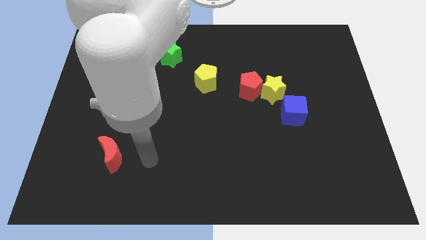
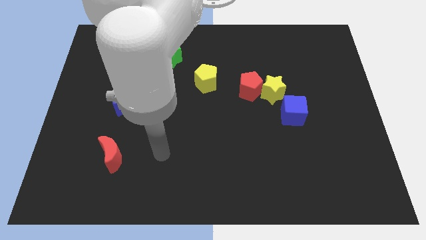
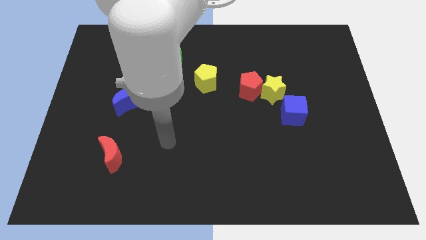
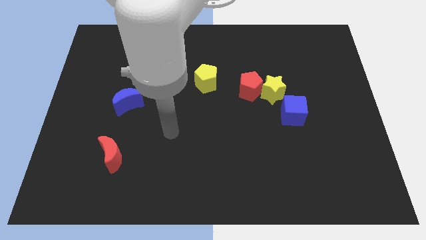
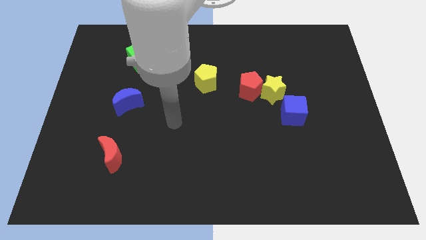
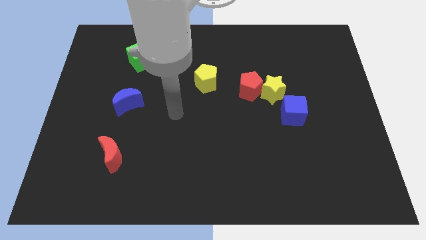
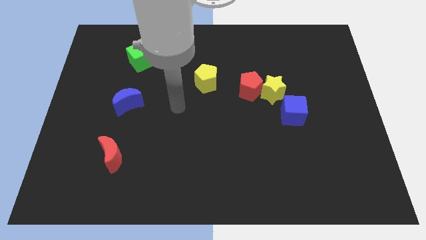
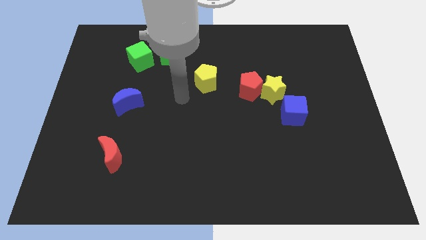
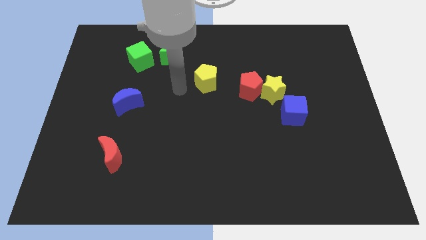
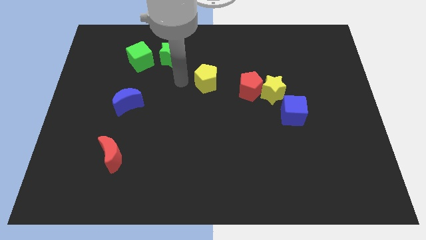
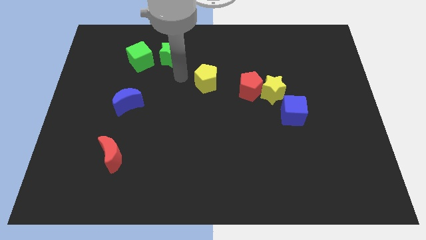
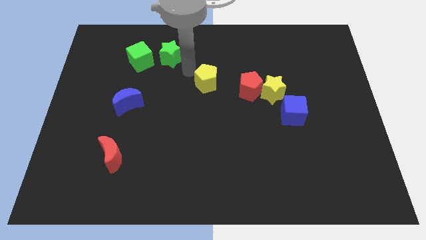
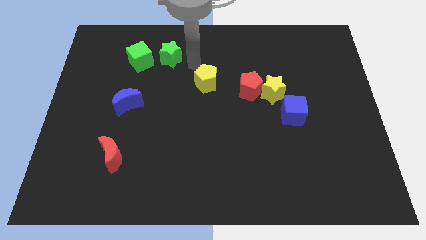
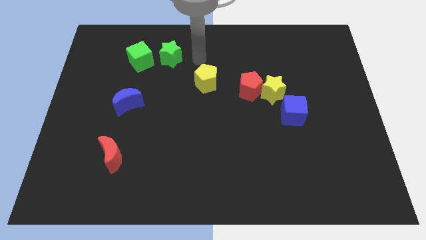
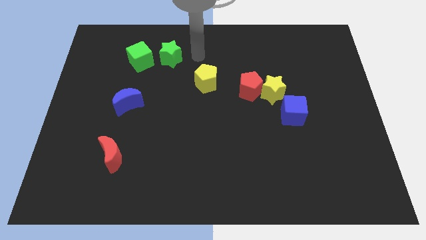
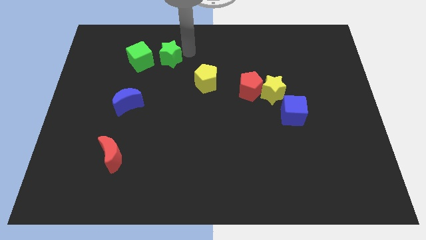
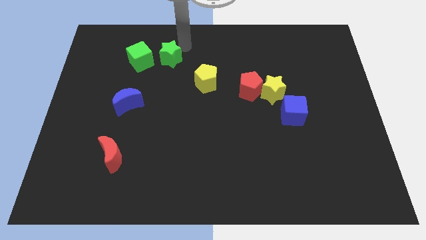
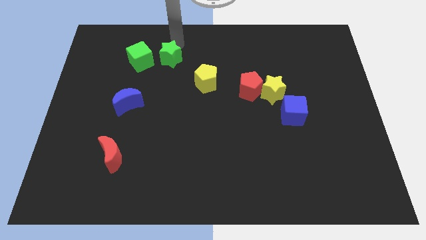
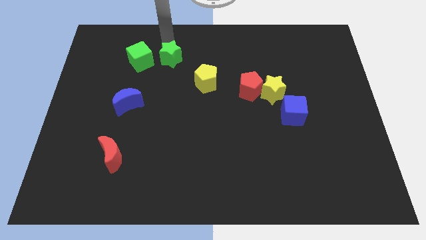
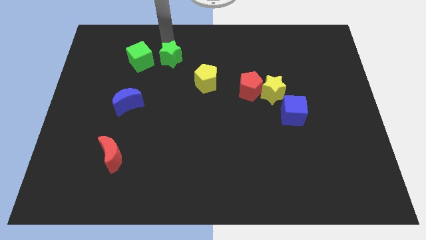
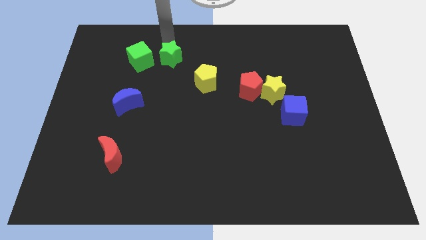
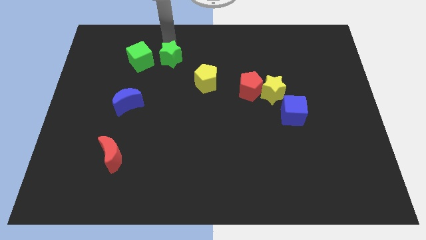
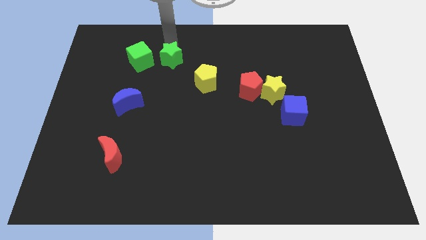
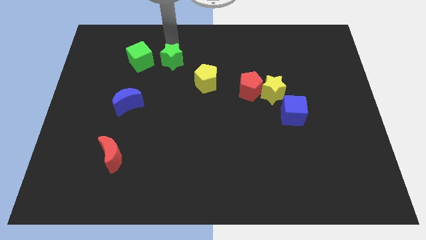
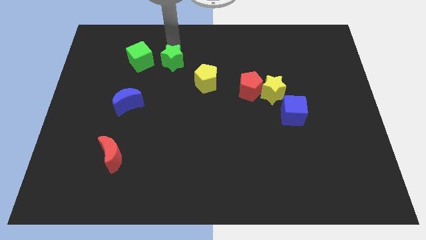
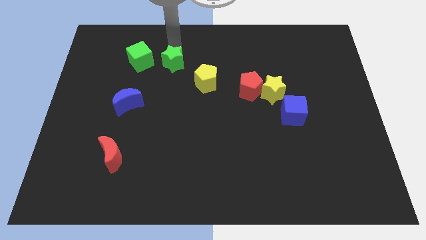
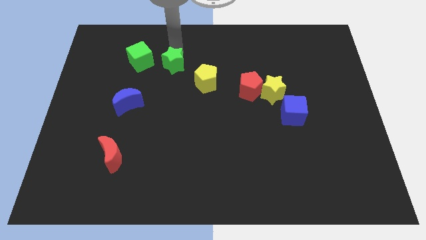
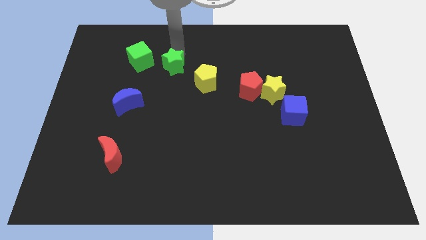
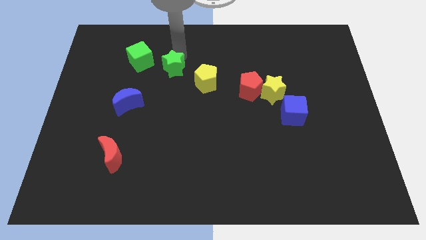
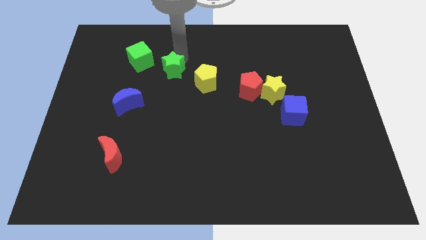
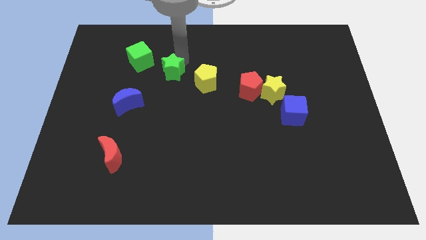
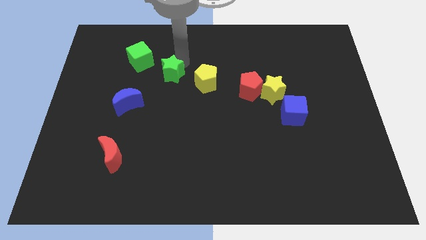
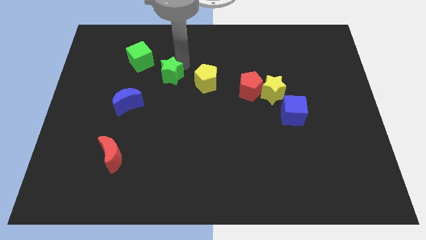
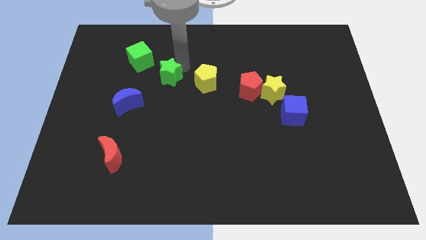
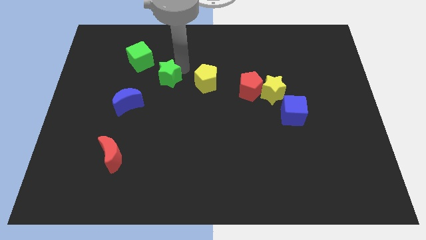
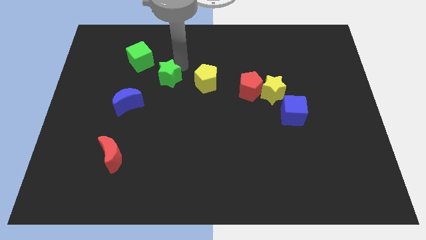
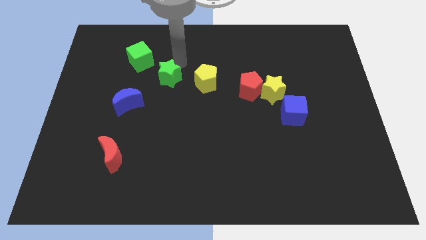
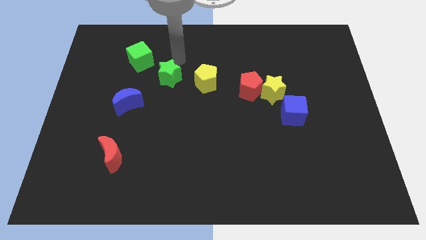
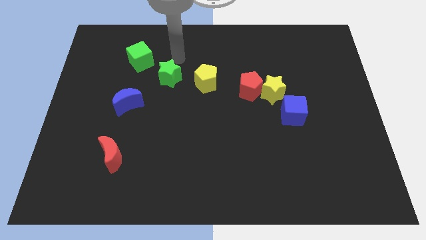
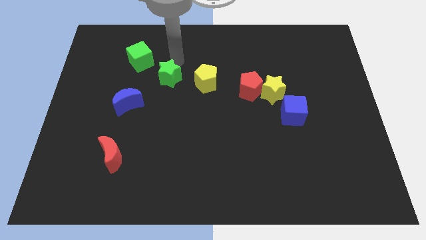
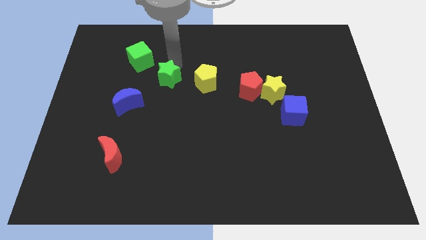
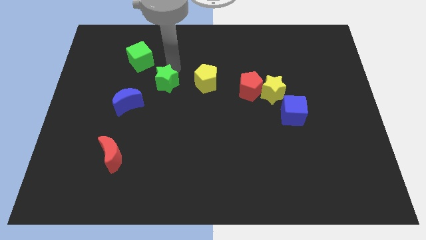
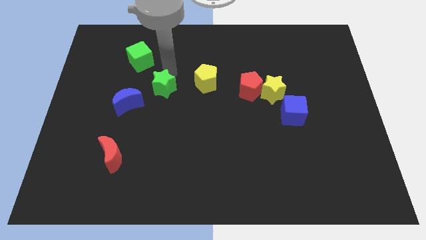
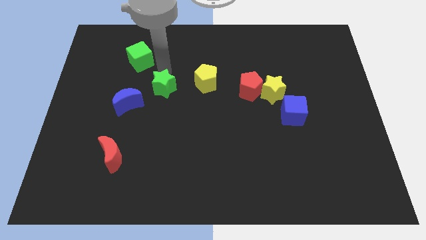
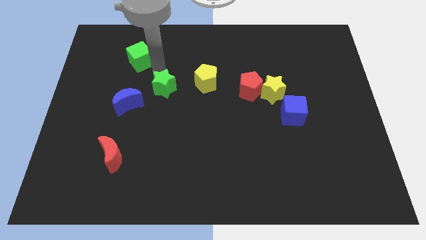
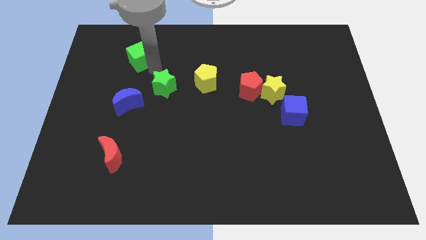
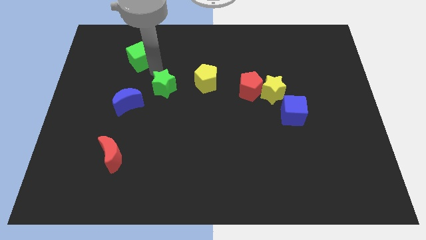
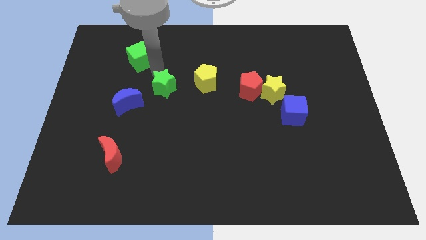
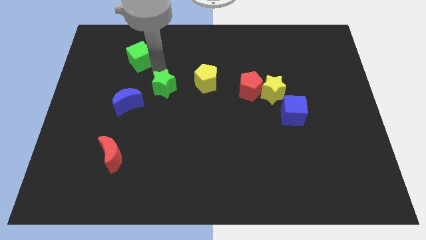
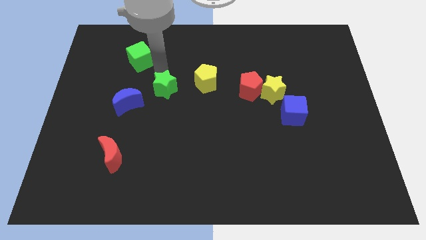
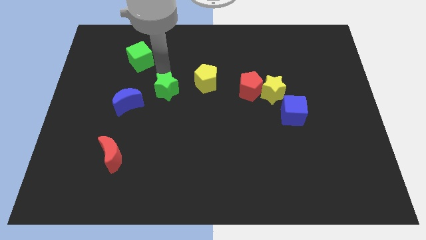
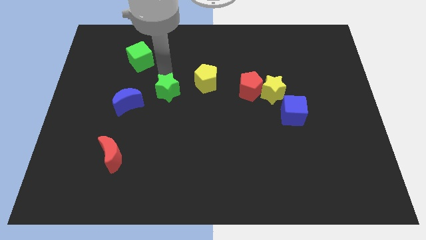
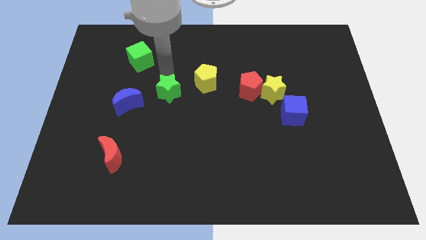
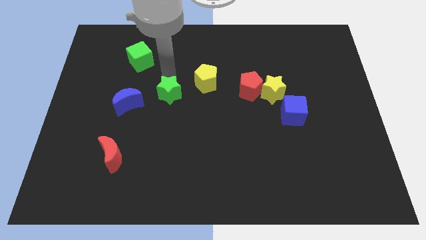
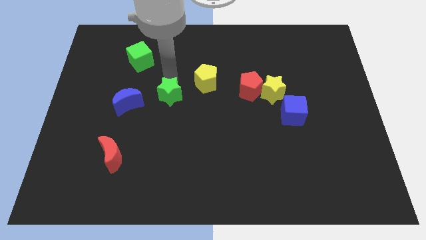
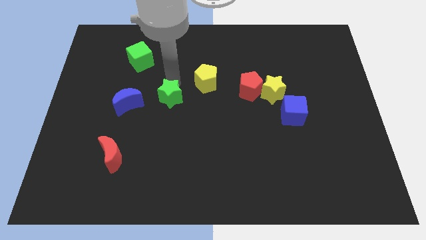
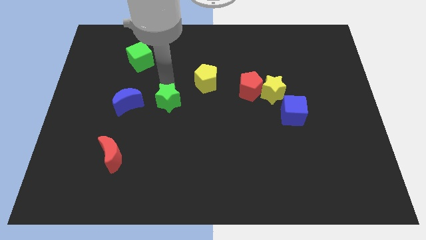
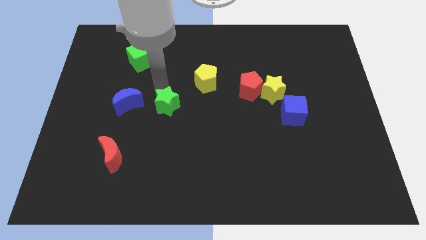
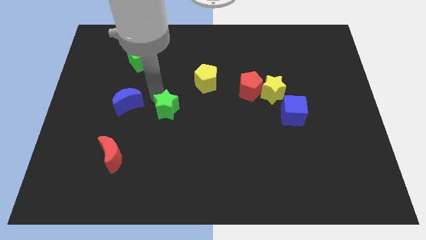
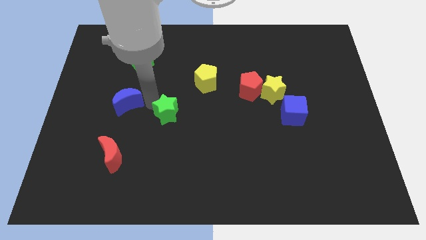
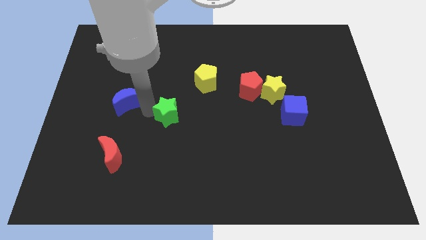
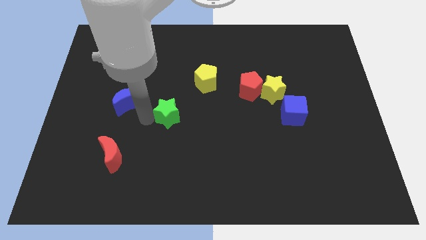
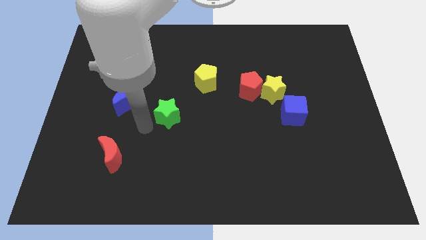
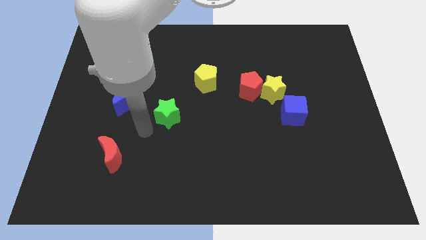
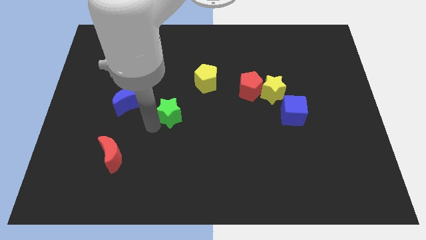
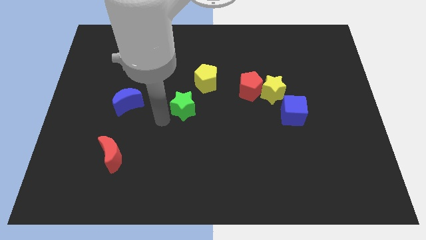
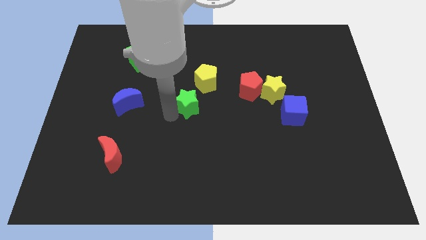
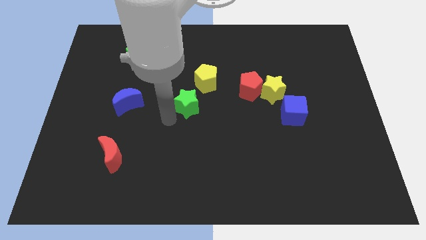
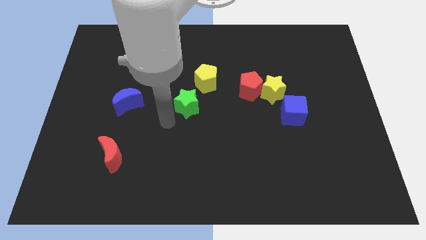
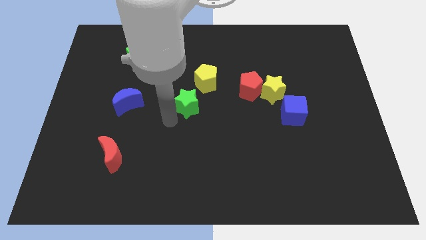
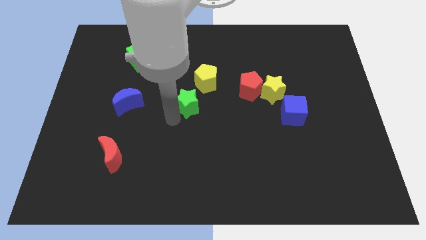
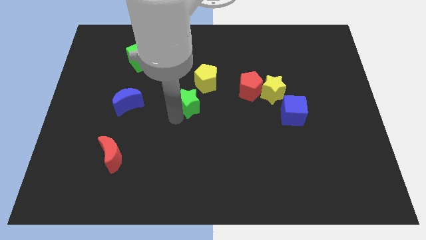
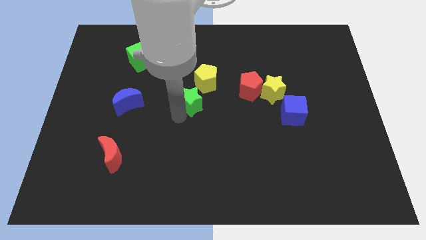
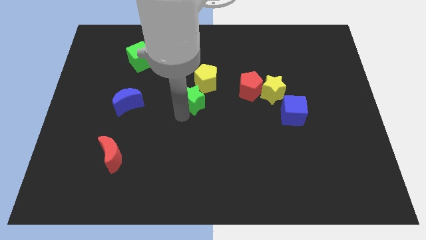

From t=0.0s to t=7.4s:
slide the green star to the left of the red pentagon
